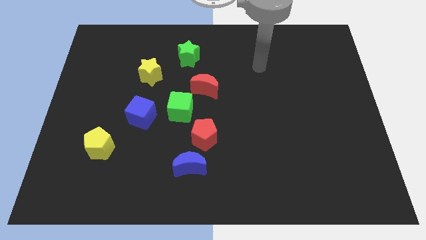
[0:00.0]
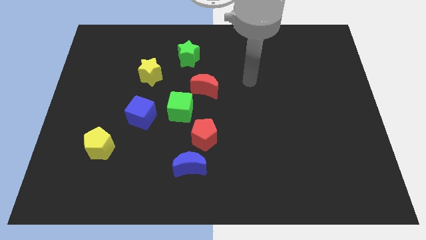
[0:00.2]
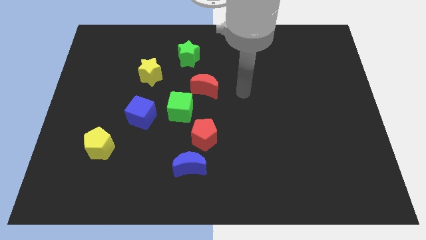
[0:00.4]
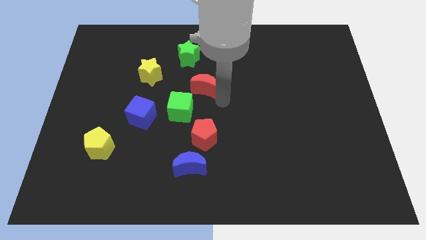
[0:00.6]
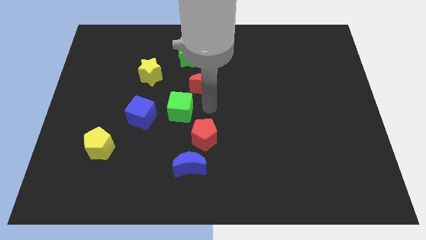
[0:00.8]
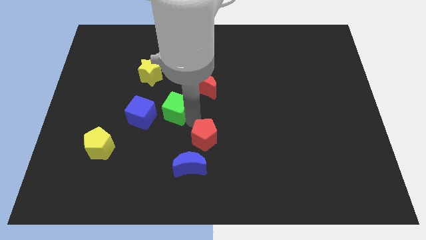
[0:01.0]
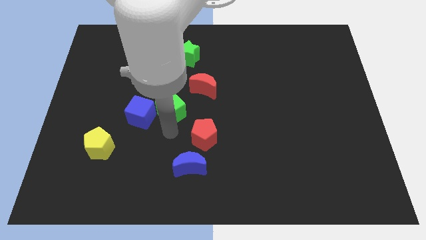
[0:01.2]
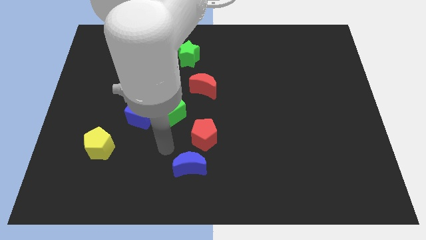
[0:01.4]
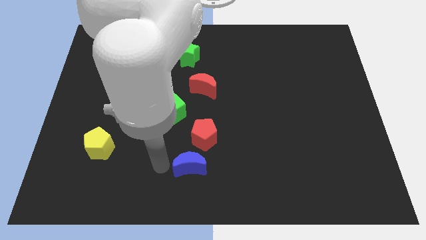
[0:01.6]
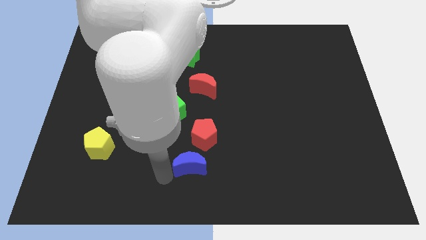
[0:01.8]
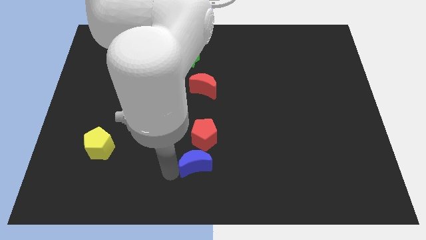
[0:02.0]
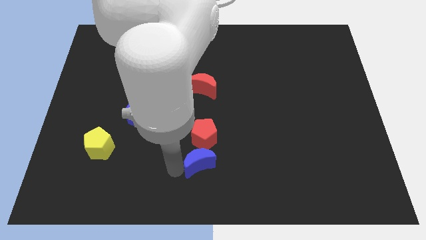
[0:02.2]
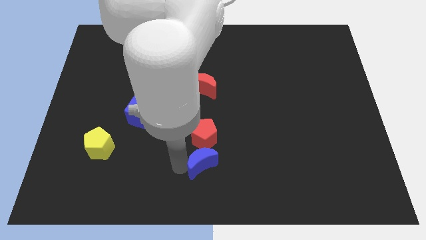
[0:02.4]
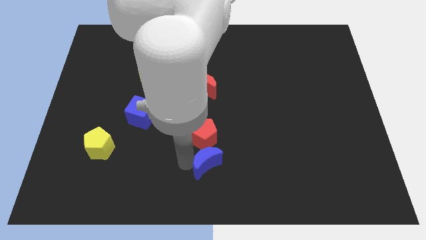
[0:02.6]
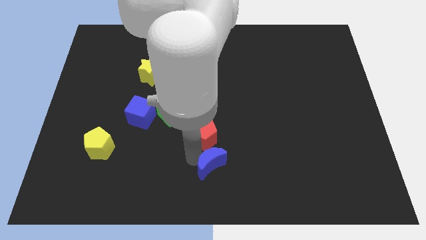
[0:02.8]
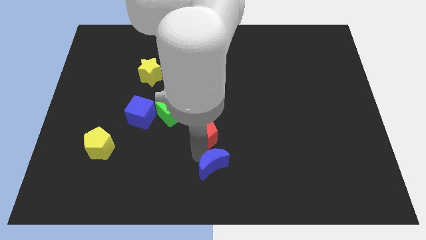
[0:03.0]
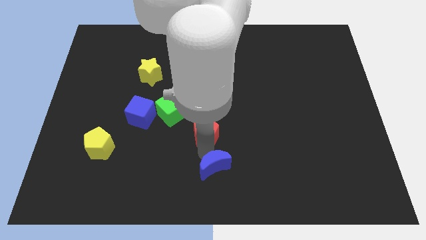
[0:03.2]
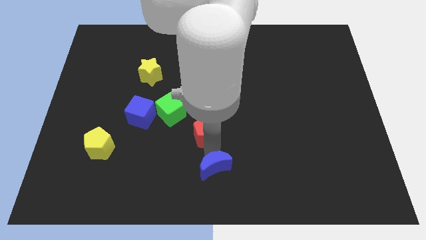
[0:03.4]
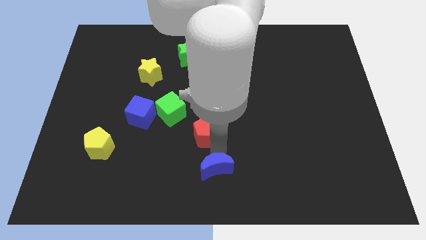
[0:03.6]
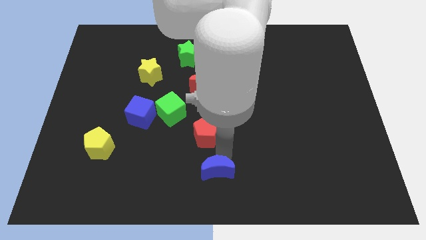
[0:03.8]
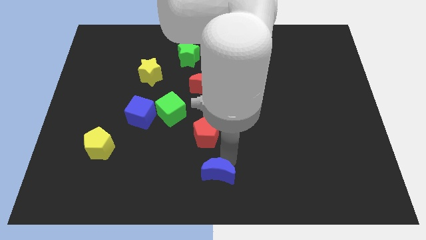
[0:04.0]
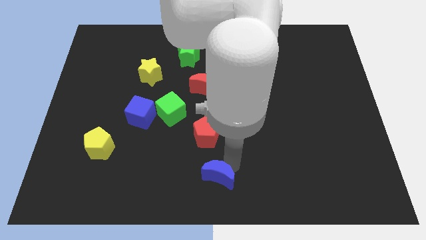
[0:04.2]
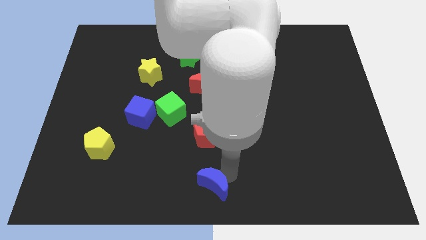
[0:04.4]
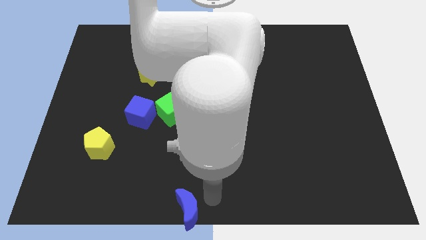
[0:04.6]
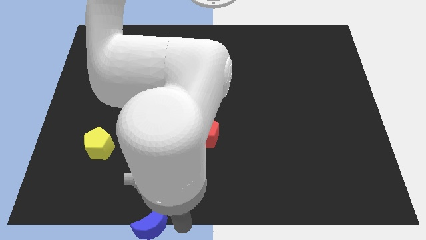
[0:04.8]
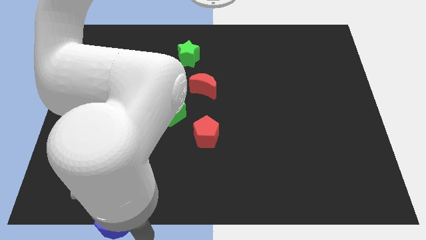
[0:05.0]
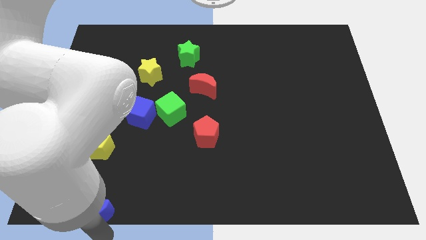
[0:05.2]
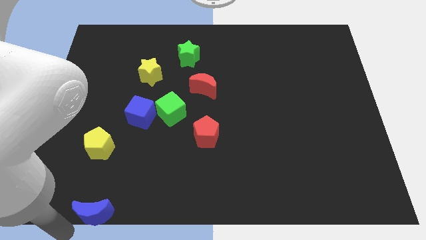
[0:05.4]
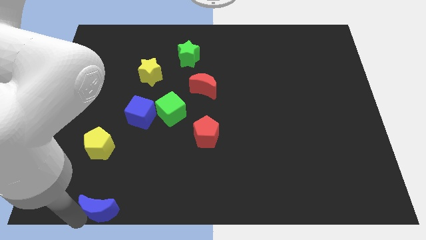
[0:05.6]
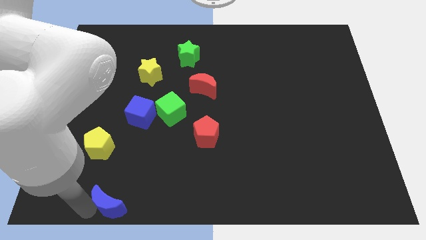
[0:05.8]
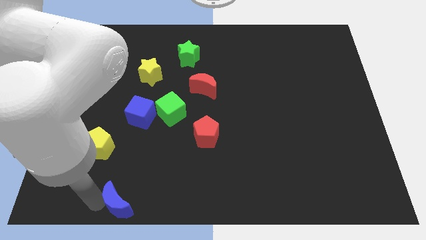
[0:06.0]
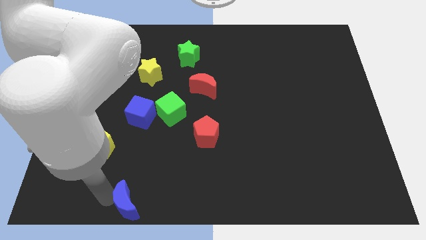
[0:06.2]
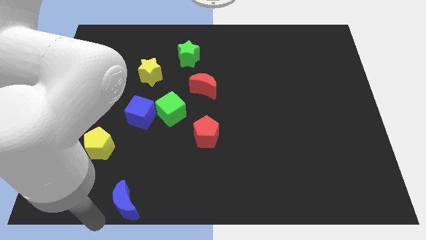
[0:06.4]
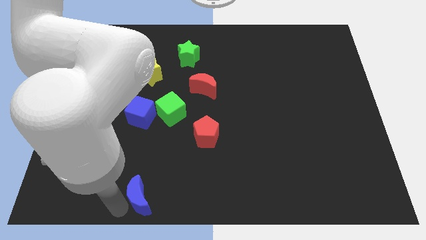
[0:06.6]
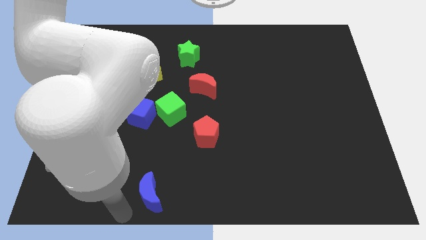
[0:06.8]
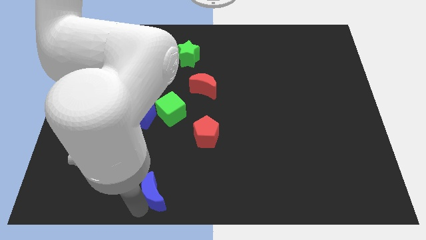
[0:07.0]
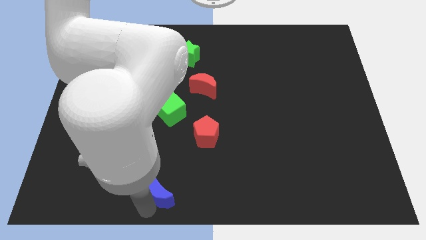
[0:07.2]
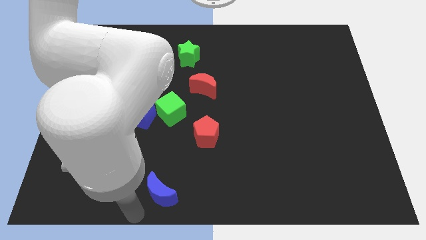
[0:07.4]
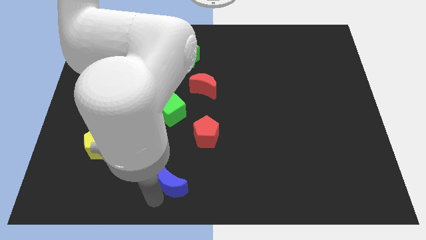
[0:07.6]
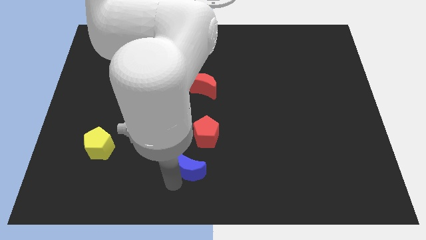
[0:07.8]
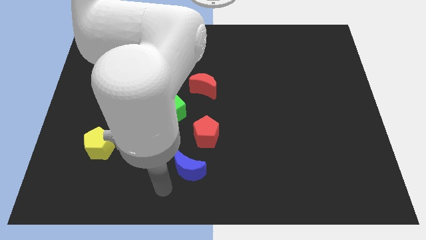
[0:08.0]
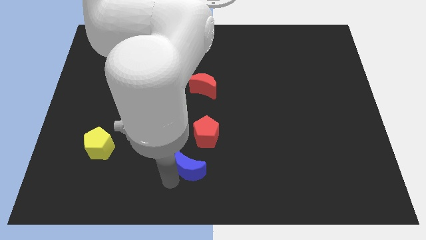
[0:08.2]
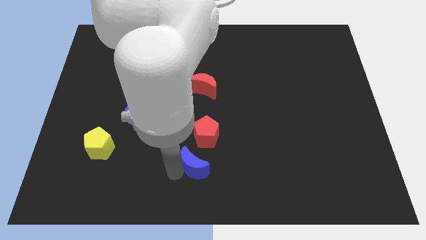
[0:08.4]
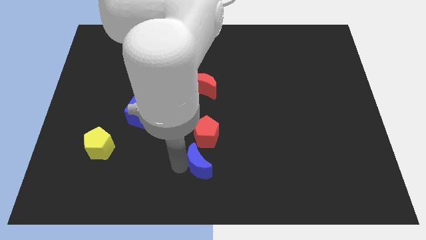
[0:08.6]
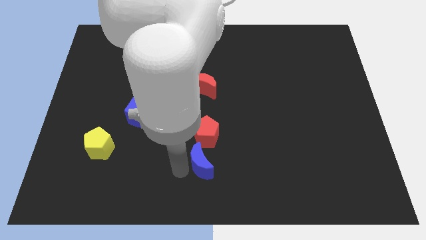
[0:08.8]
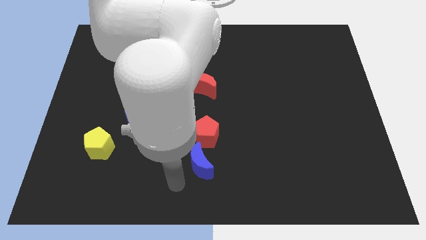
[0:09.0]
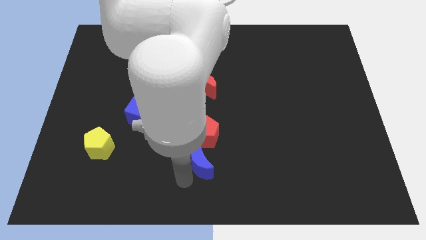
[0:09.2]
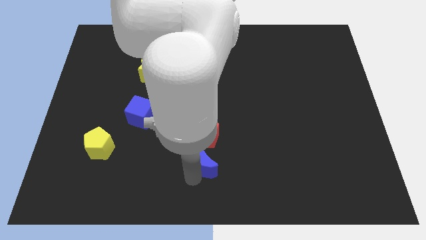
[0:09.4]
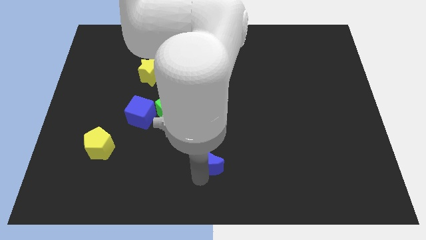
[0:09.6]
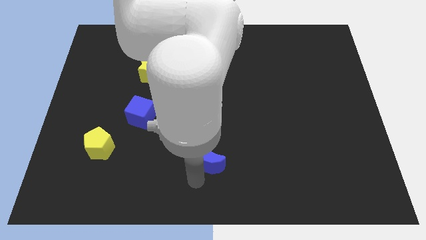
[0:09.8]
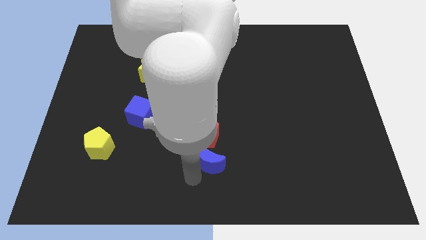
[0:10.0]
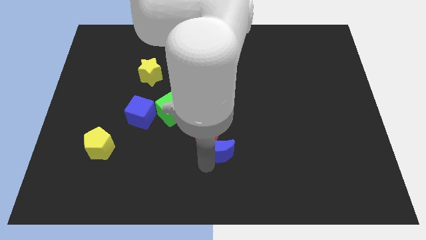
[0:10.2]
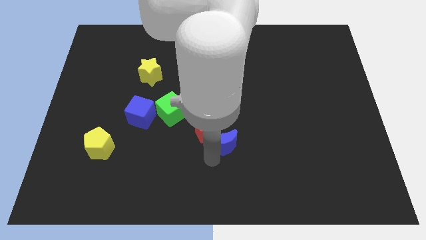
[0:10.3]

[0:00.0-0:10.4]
slightly move the blue moon up and then to the right

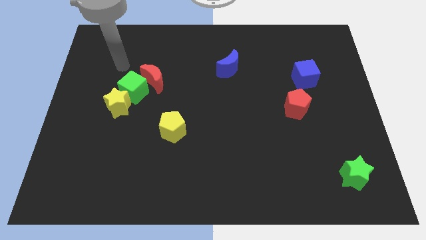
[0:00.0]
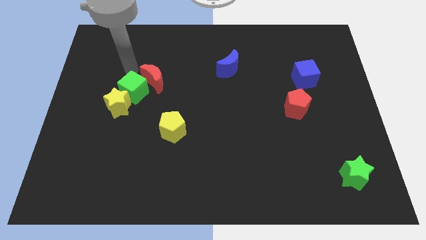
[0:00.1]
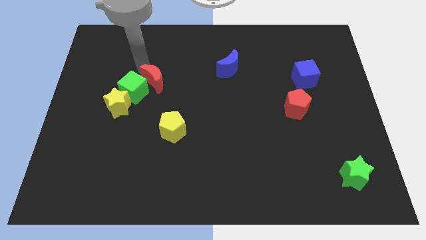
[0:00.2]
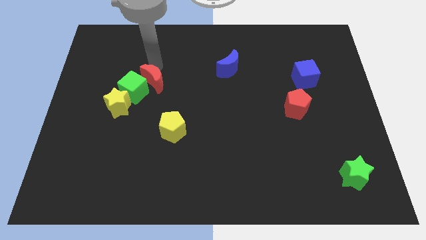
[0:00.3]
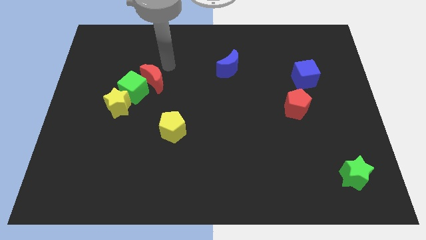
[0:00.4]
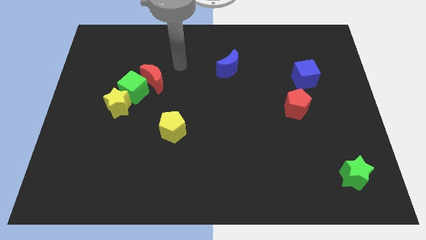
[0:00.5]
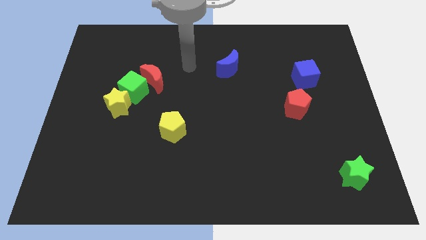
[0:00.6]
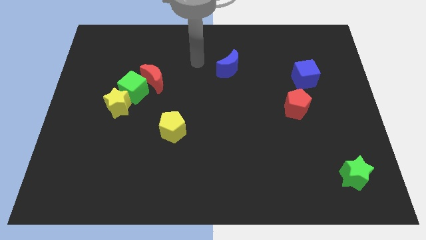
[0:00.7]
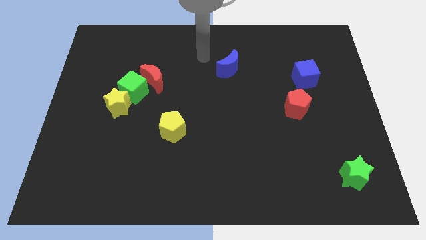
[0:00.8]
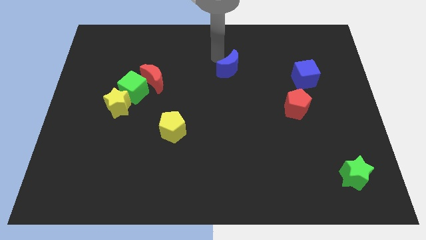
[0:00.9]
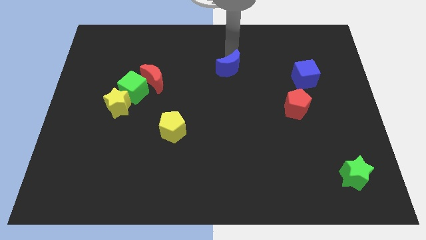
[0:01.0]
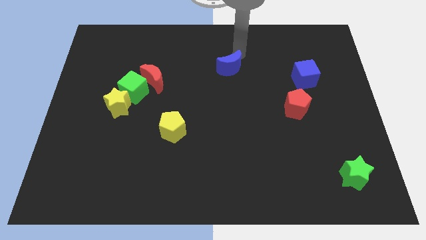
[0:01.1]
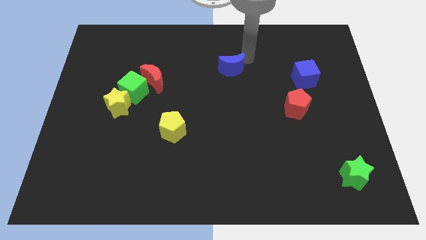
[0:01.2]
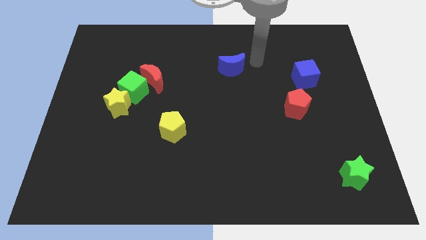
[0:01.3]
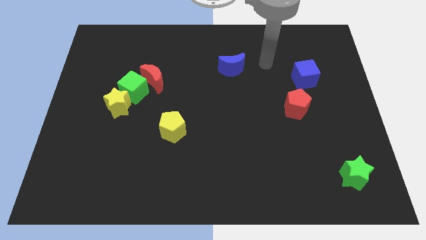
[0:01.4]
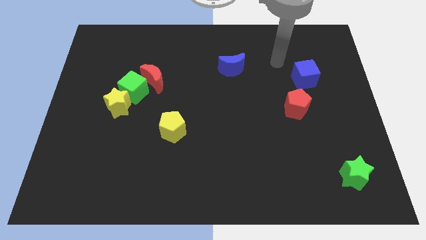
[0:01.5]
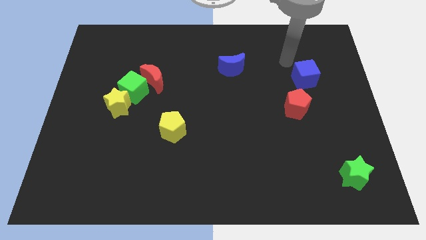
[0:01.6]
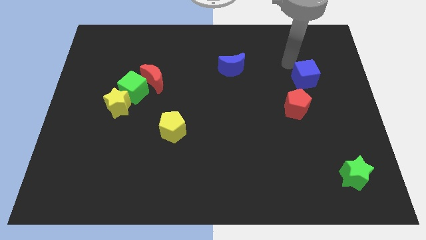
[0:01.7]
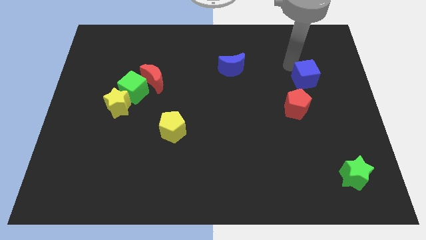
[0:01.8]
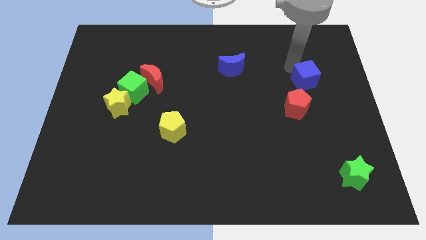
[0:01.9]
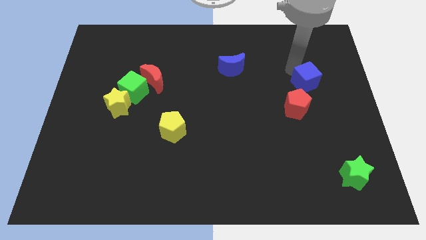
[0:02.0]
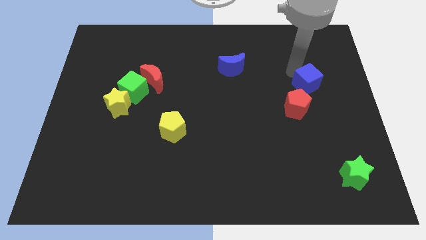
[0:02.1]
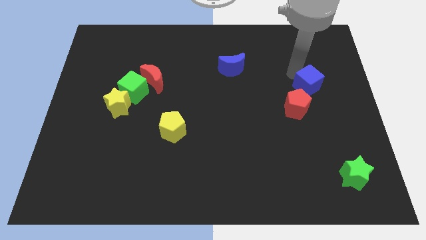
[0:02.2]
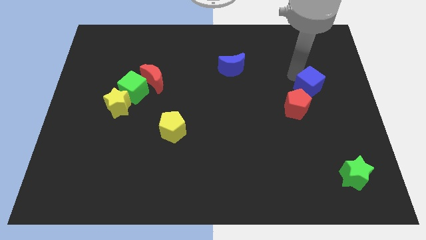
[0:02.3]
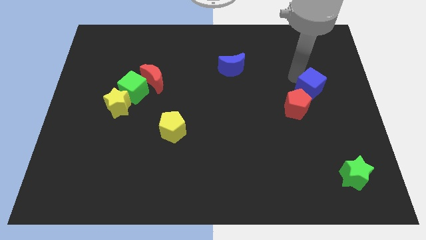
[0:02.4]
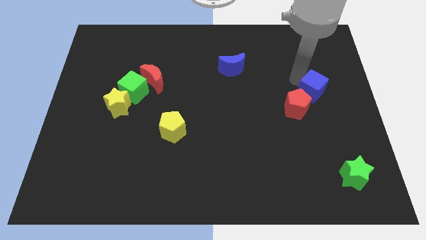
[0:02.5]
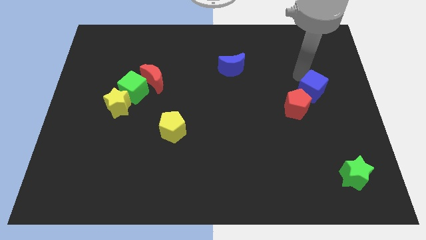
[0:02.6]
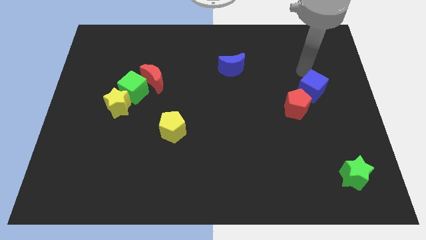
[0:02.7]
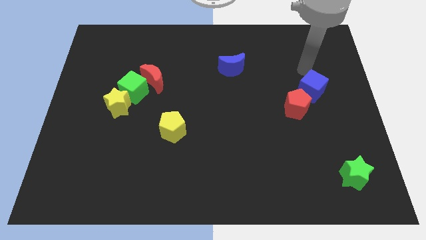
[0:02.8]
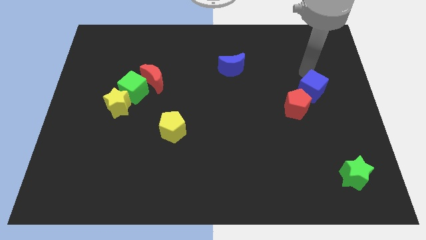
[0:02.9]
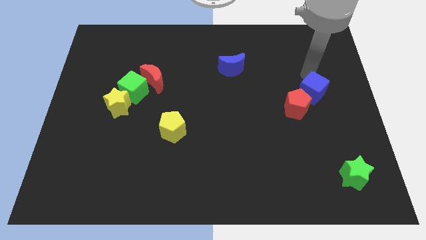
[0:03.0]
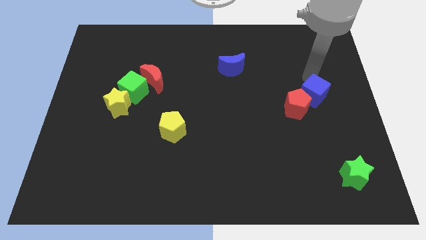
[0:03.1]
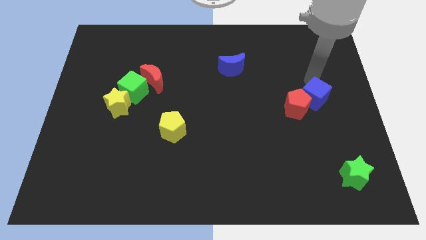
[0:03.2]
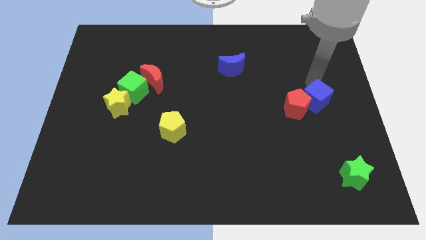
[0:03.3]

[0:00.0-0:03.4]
push the blue cube a little bit downwards
